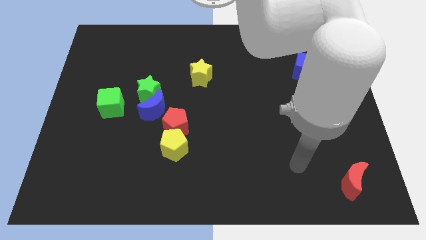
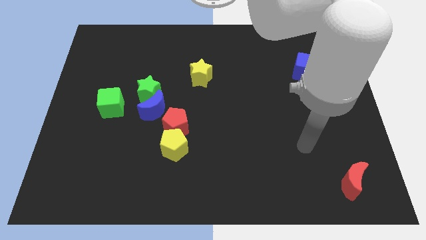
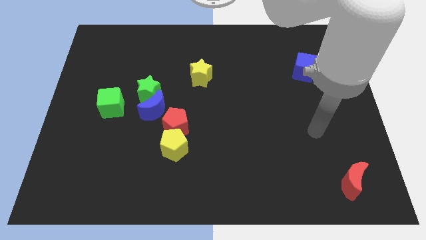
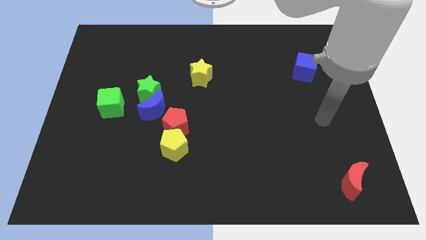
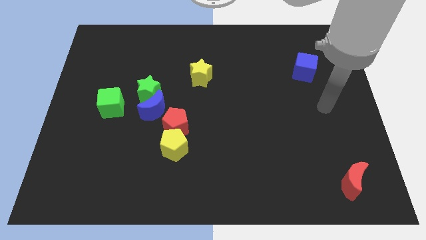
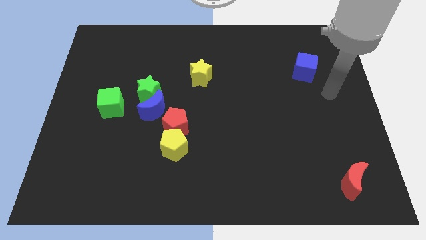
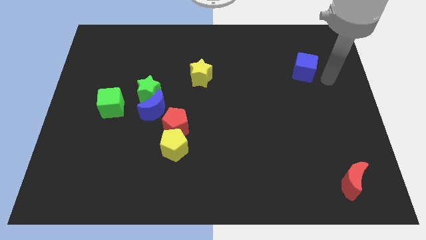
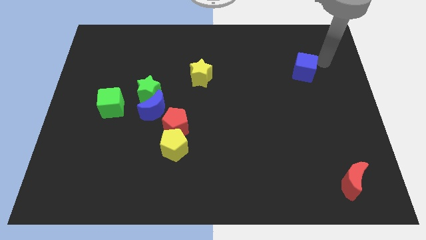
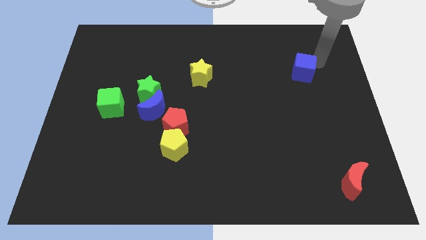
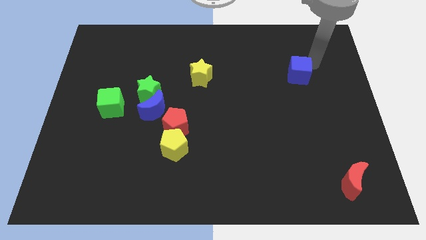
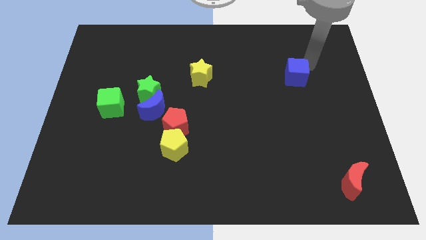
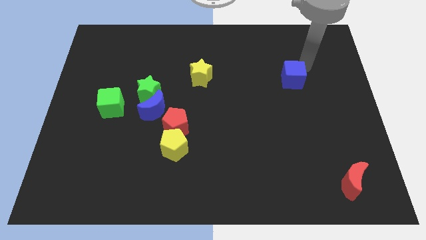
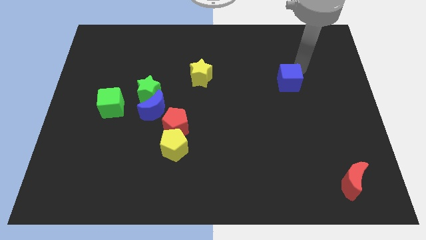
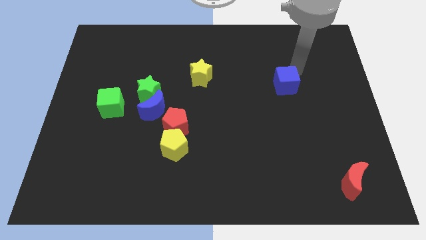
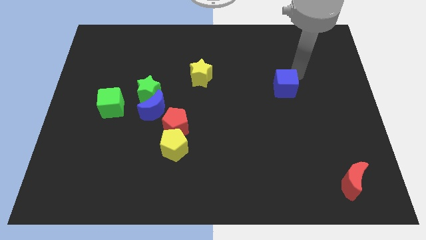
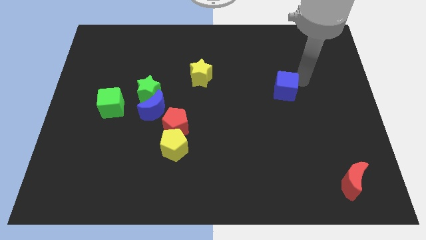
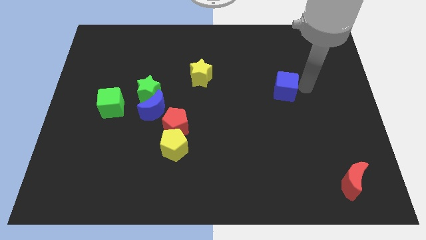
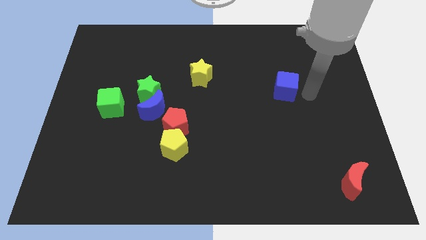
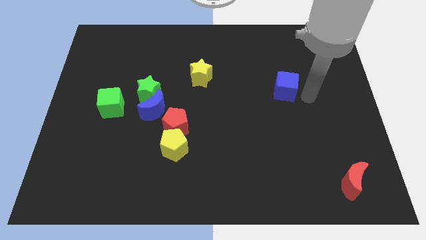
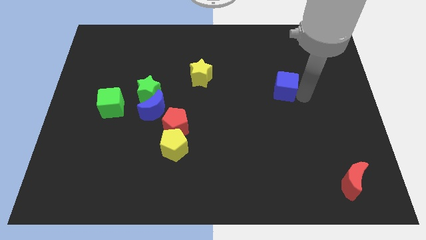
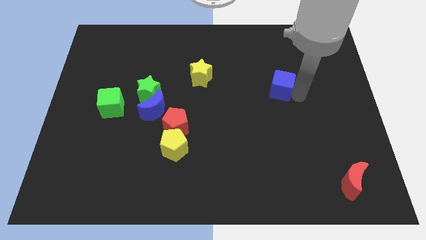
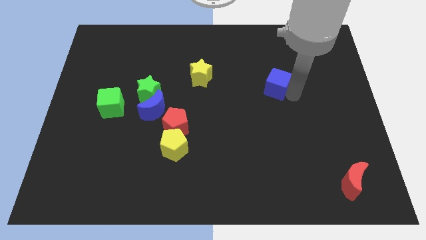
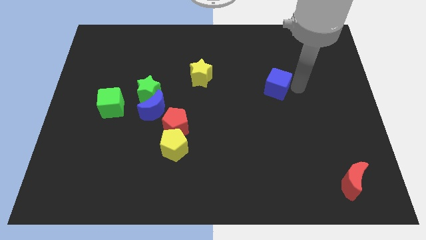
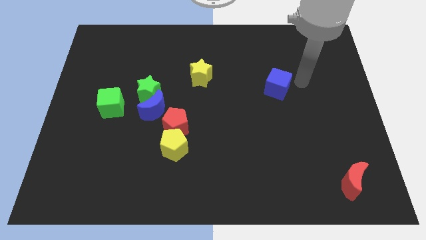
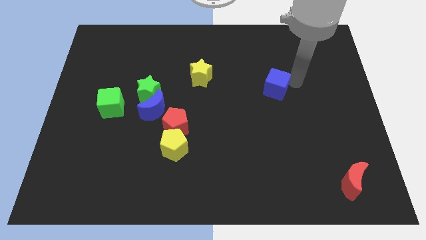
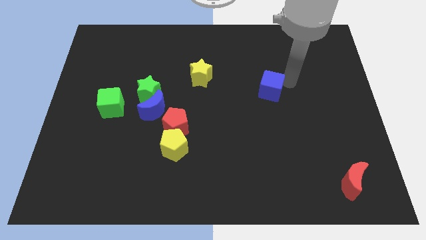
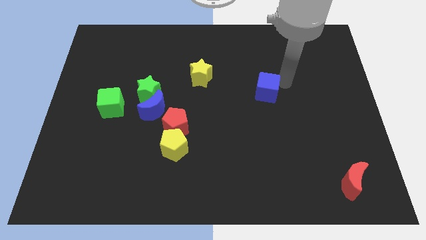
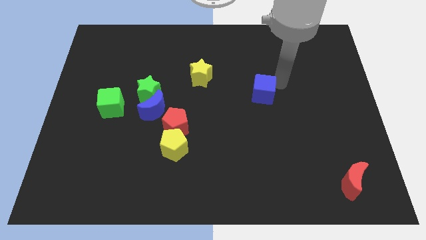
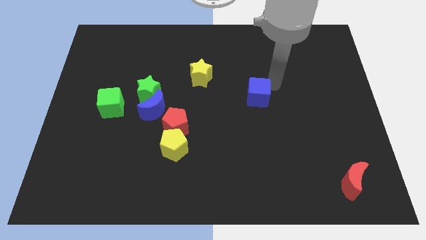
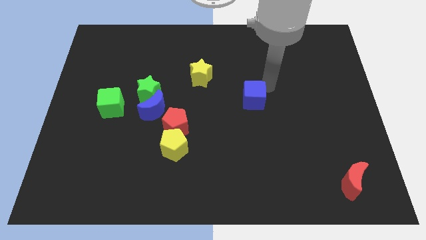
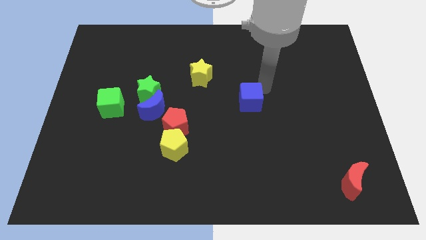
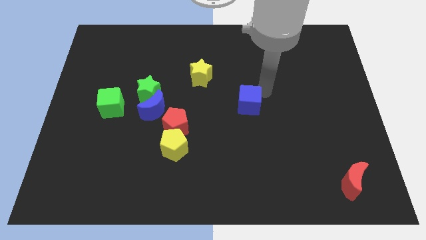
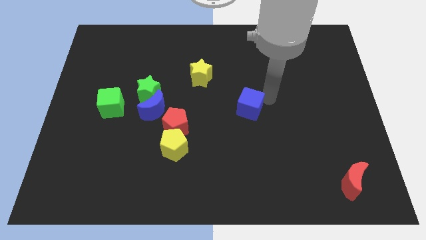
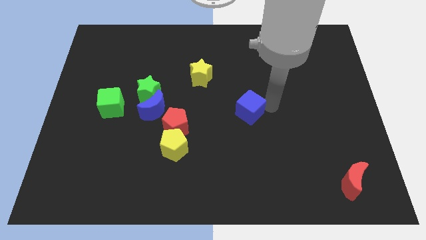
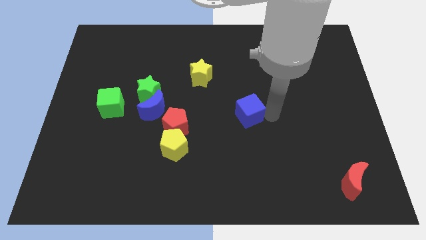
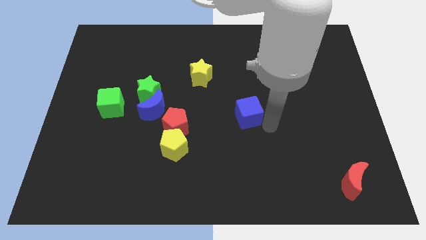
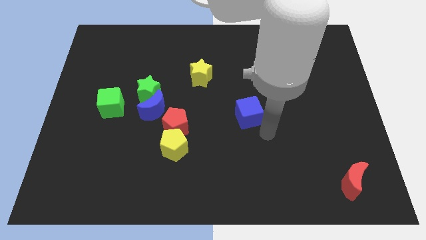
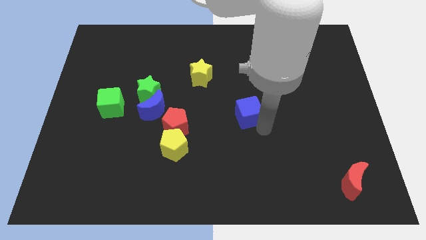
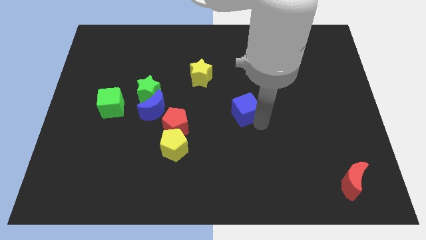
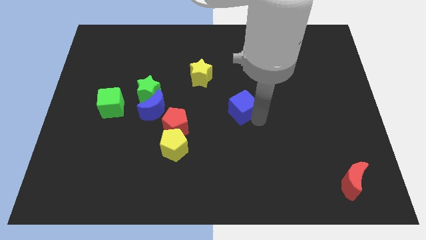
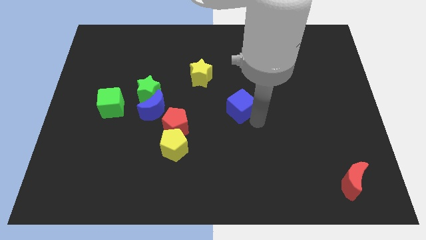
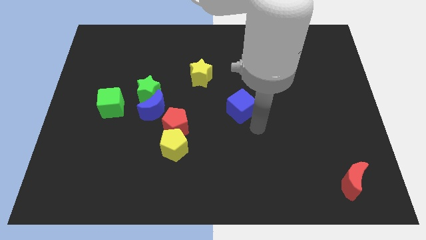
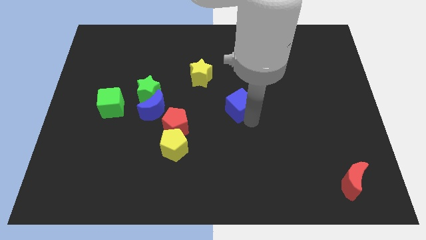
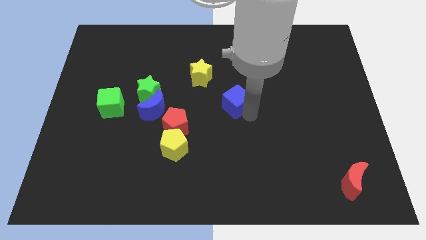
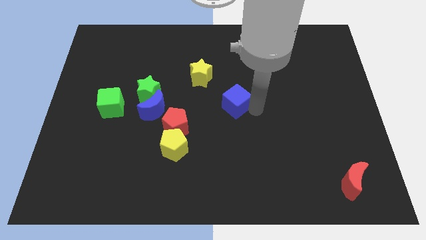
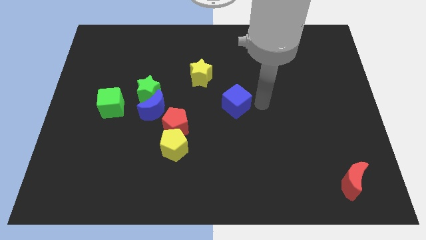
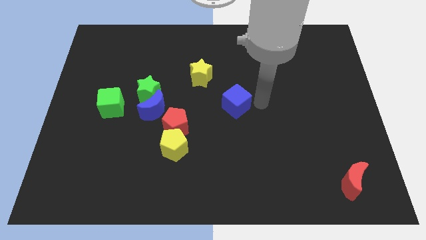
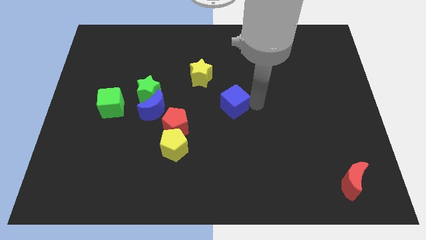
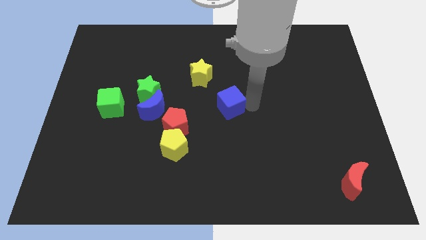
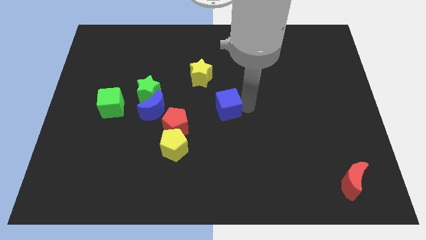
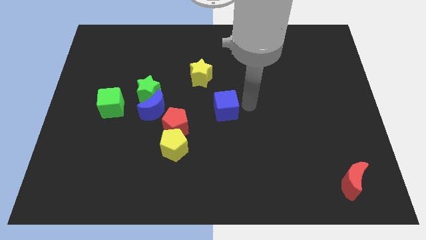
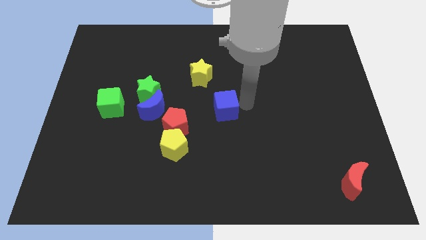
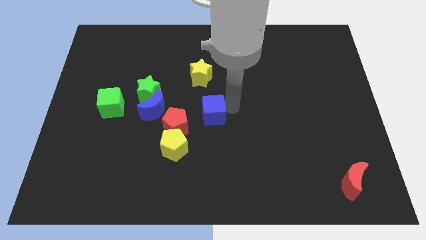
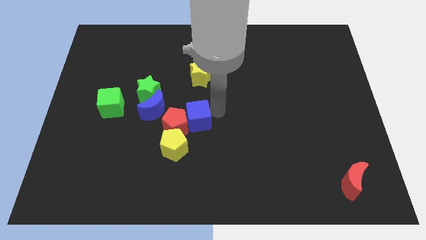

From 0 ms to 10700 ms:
move the blue cube next to the red pentagon

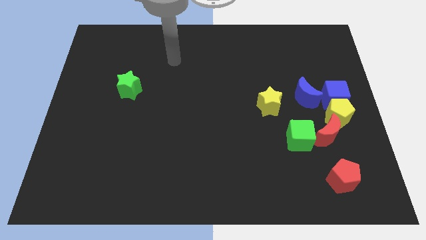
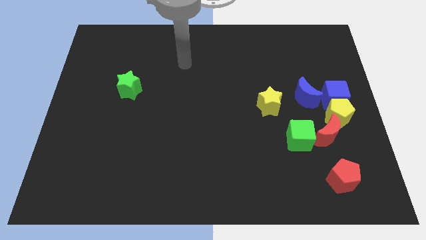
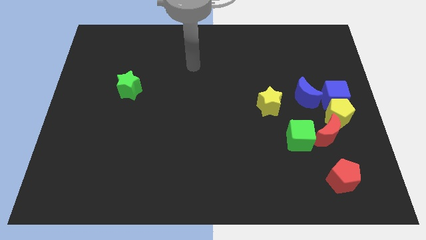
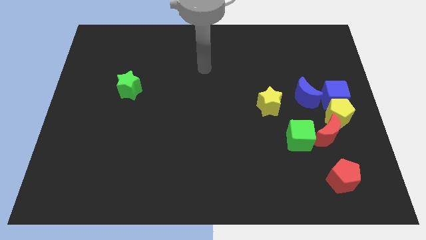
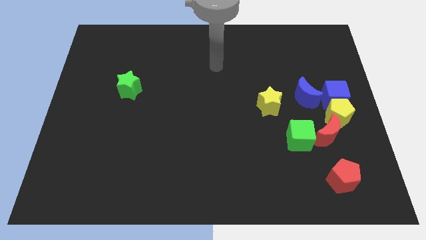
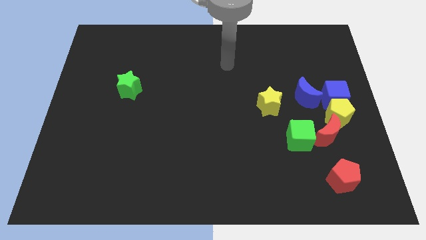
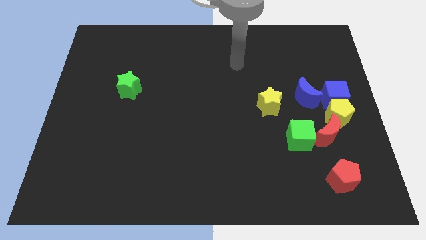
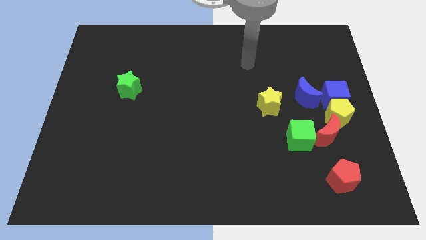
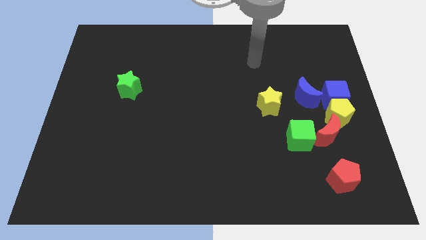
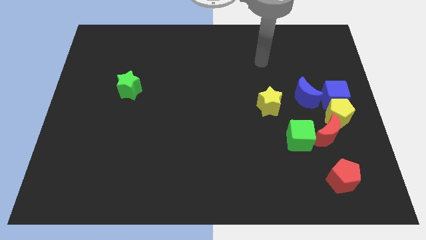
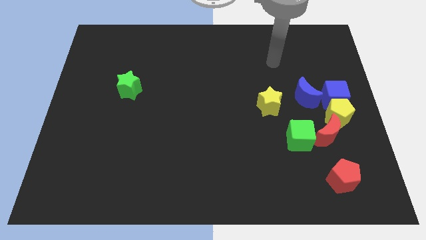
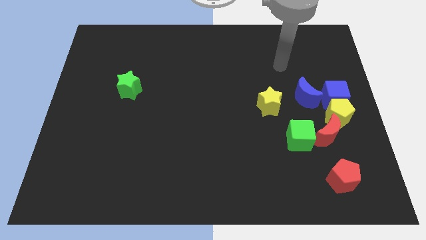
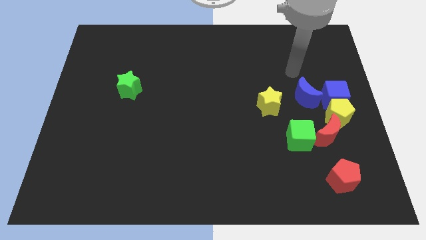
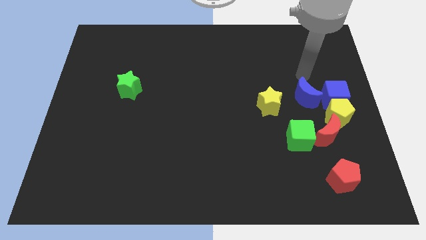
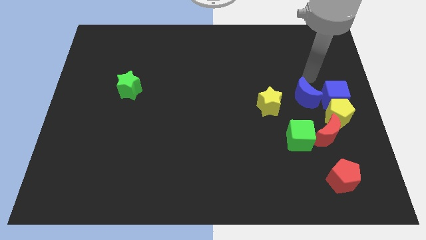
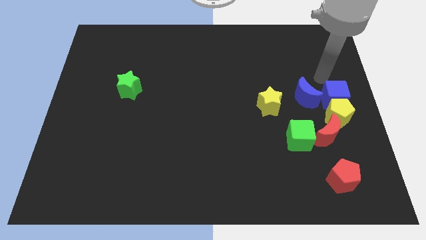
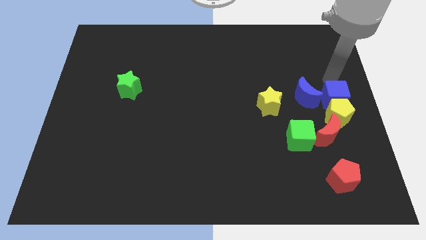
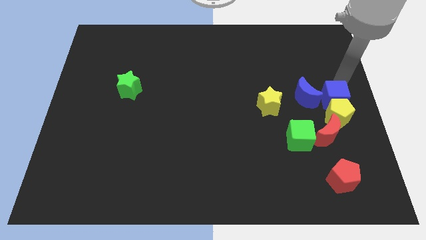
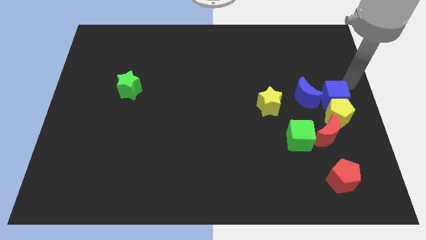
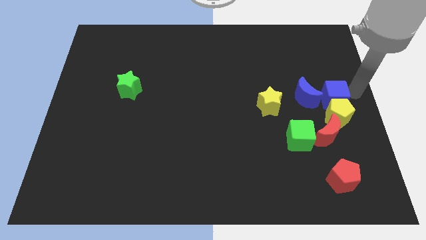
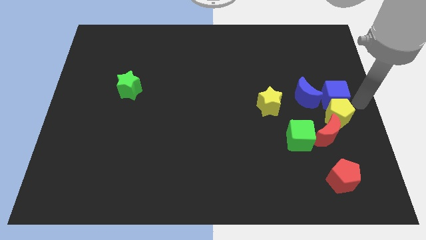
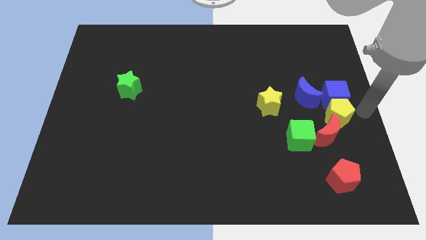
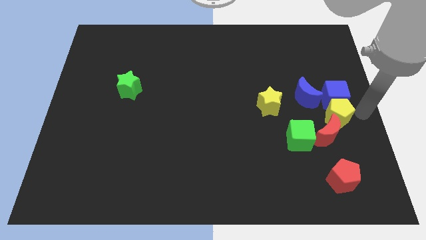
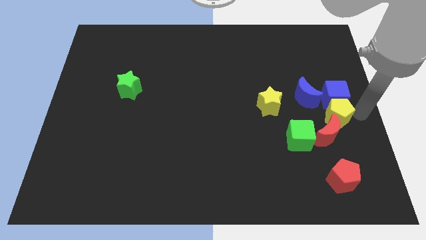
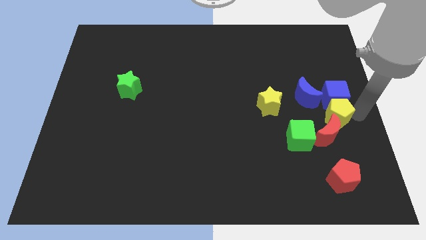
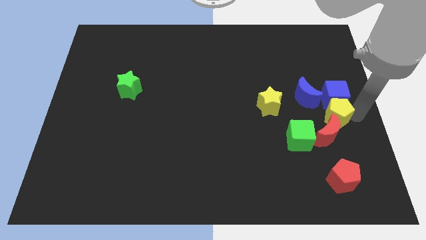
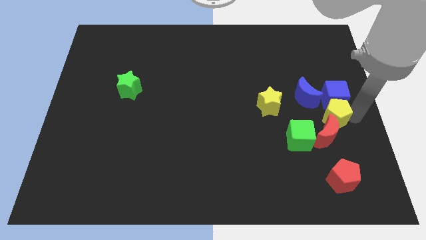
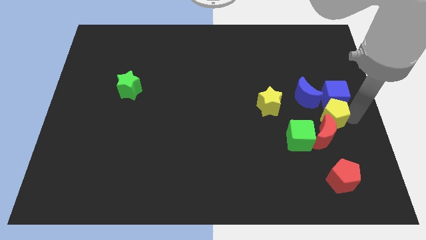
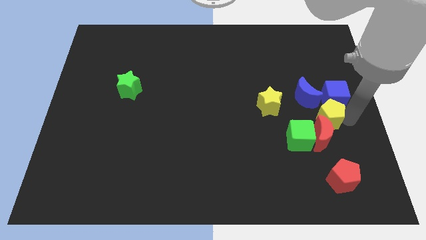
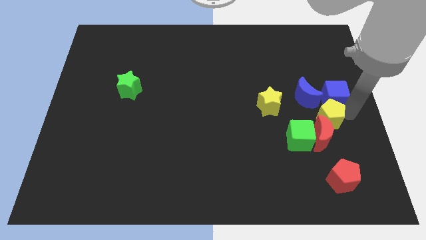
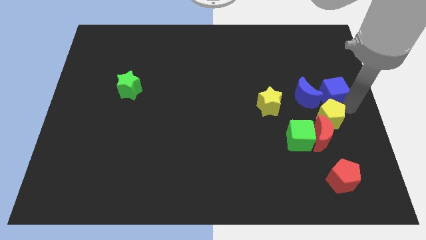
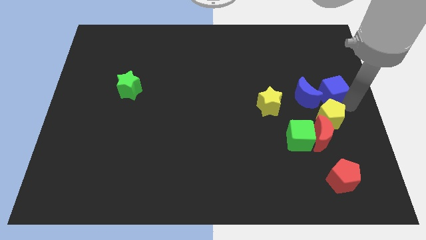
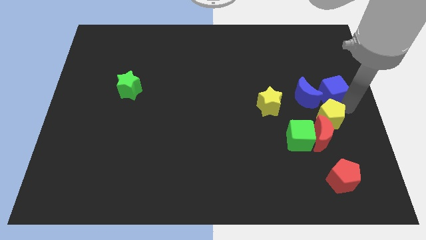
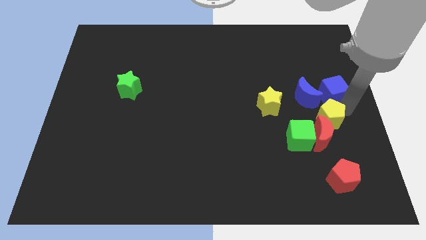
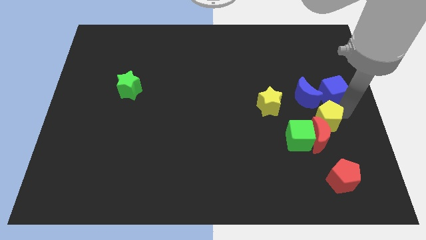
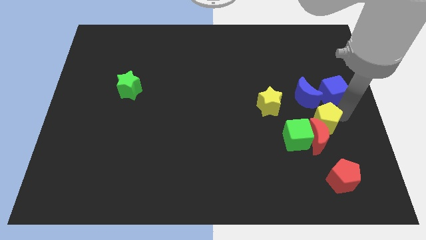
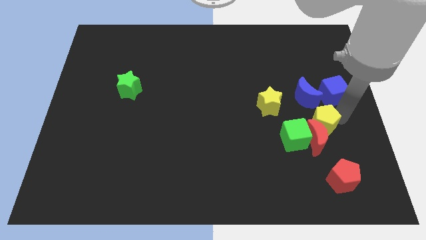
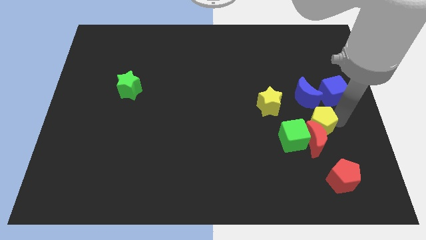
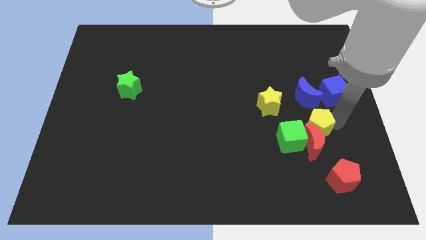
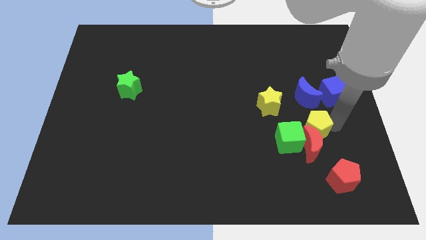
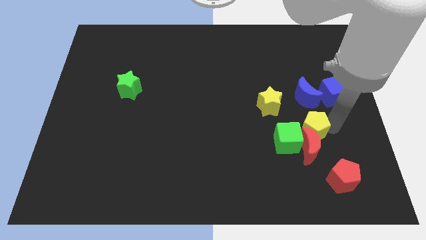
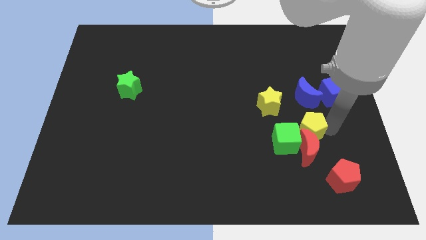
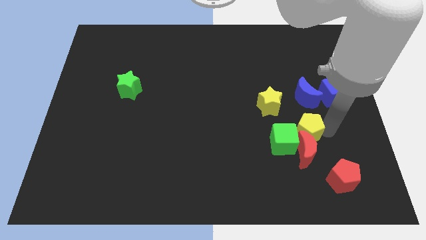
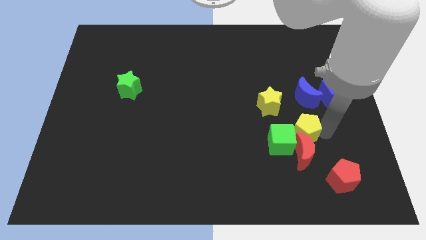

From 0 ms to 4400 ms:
slide the yellow pentagon close to the green cube
